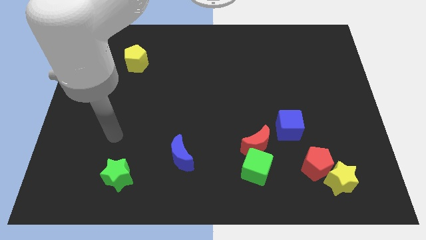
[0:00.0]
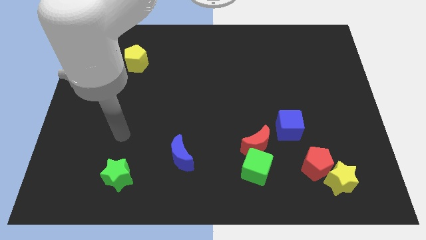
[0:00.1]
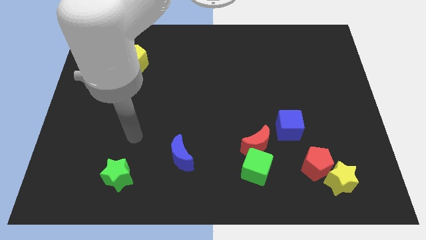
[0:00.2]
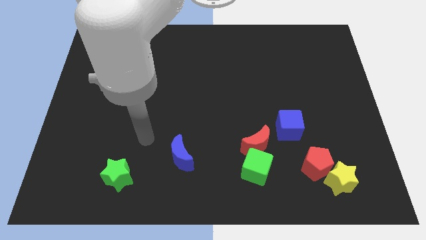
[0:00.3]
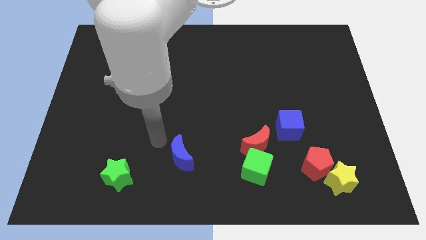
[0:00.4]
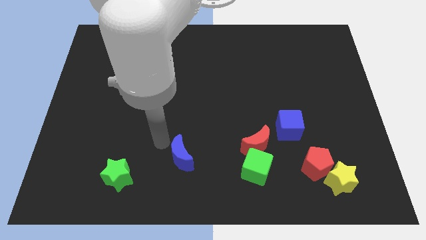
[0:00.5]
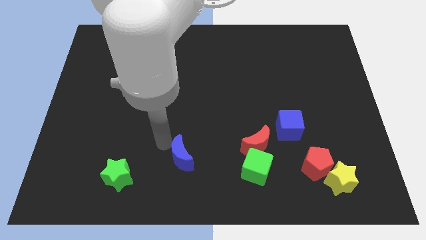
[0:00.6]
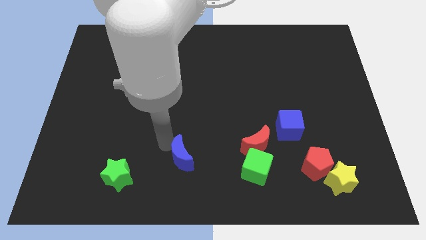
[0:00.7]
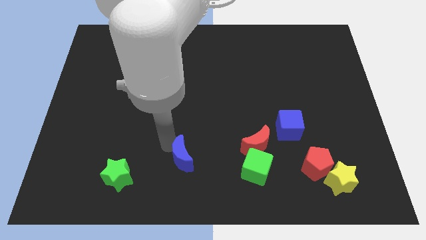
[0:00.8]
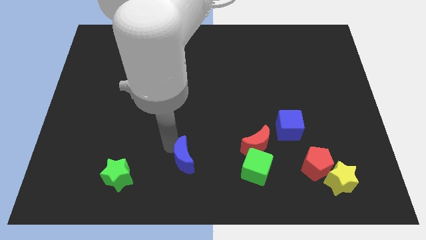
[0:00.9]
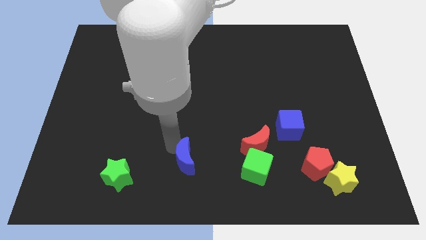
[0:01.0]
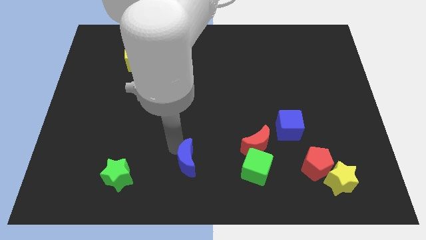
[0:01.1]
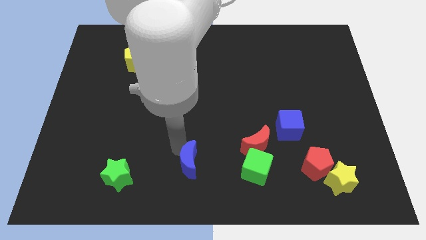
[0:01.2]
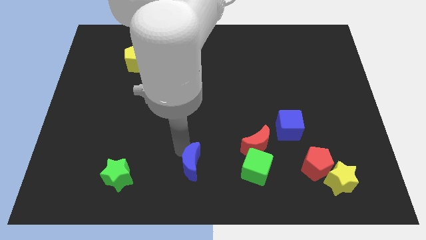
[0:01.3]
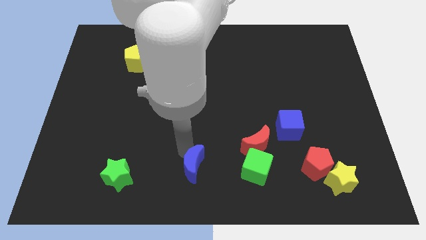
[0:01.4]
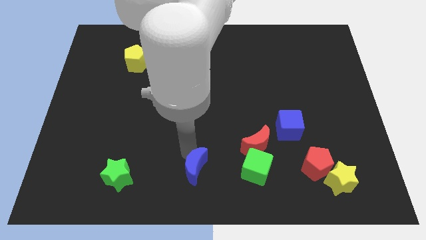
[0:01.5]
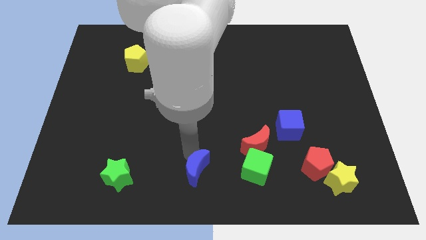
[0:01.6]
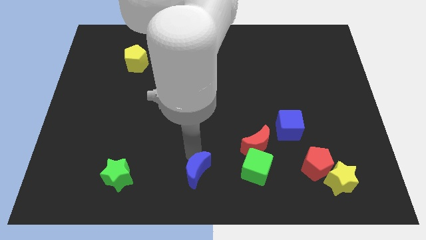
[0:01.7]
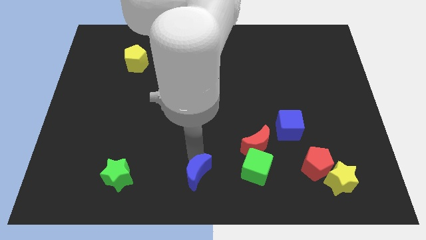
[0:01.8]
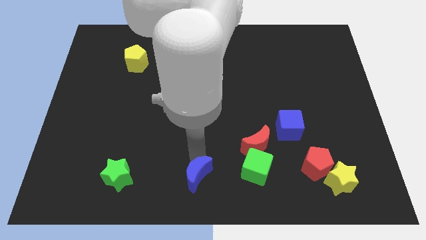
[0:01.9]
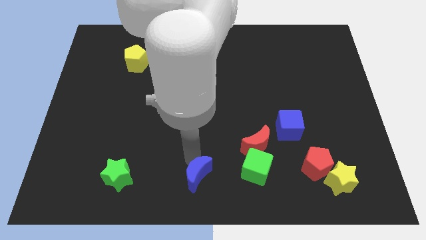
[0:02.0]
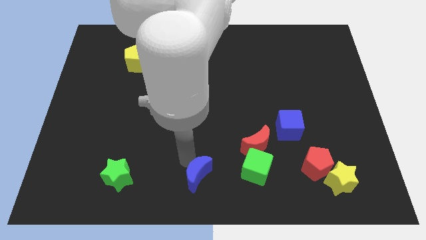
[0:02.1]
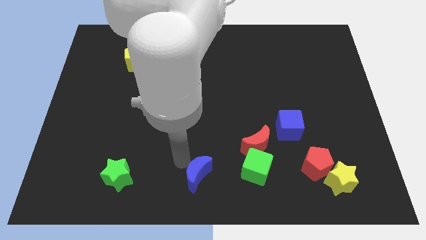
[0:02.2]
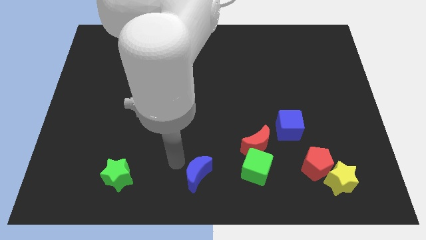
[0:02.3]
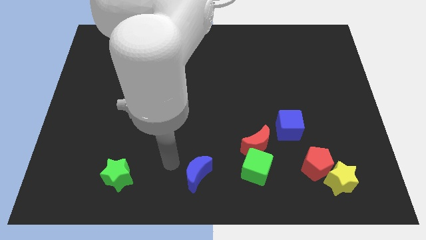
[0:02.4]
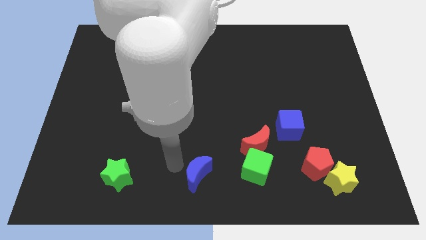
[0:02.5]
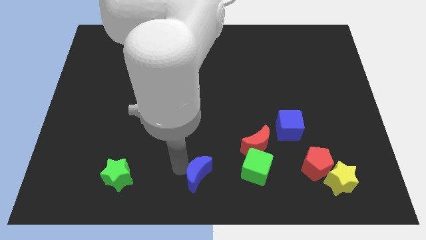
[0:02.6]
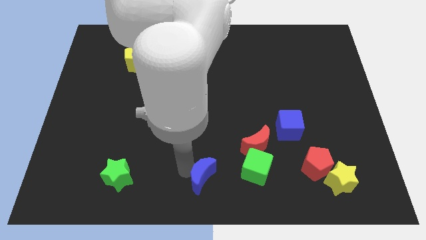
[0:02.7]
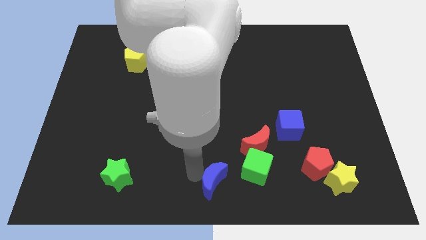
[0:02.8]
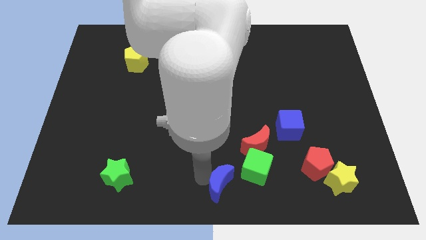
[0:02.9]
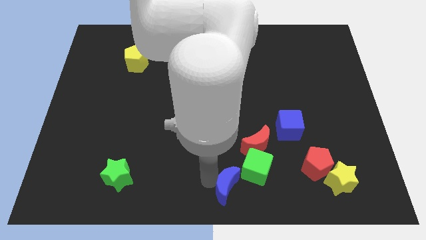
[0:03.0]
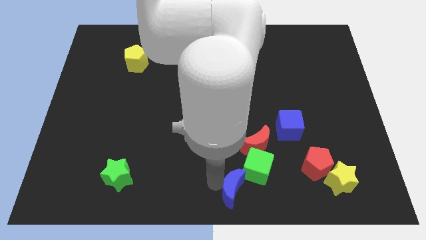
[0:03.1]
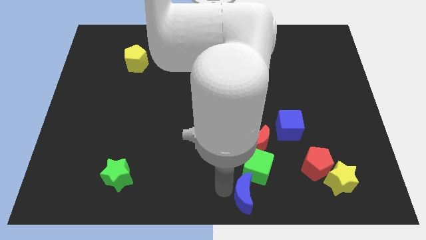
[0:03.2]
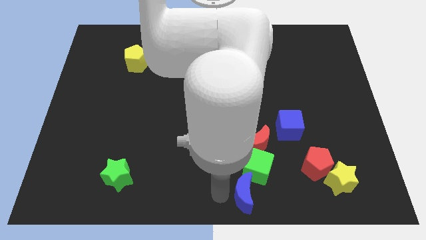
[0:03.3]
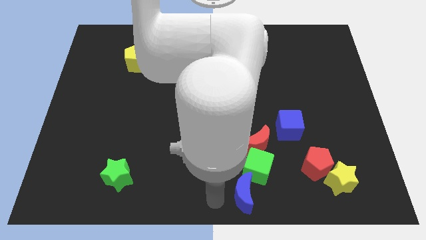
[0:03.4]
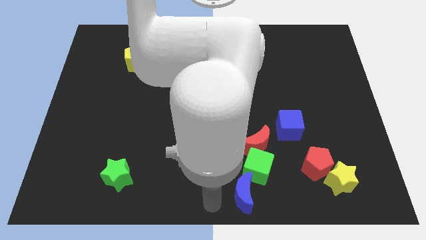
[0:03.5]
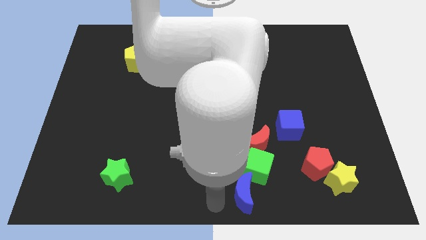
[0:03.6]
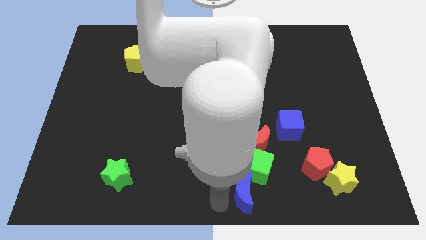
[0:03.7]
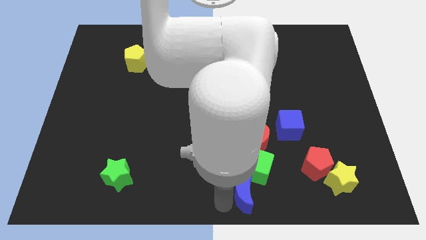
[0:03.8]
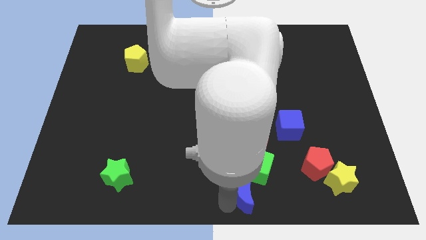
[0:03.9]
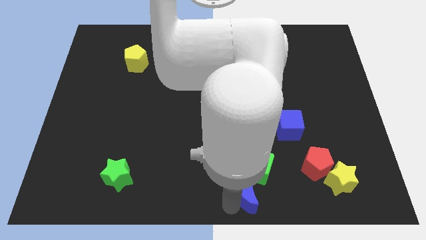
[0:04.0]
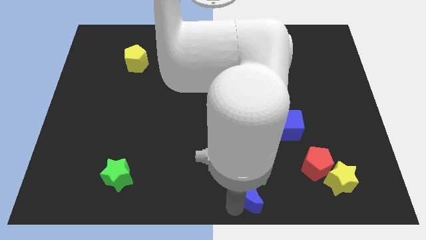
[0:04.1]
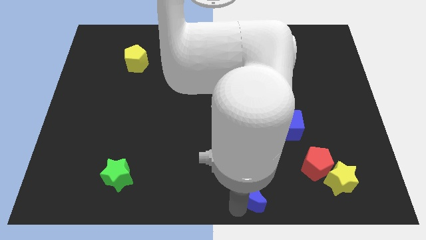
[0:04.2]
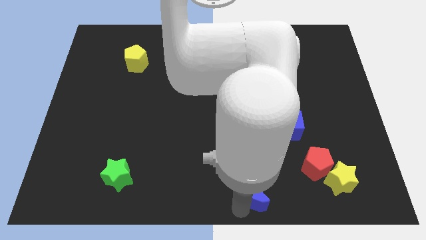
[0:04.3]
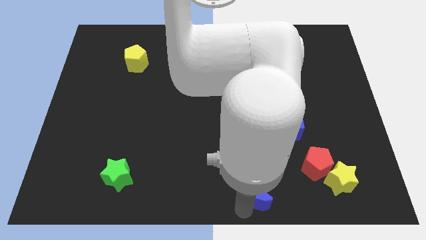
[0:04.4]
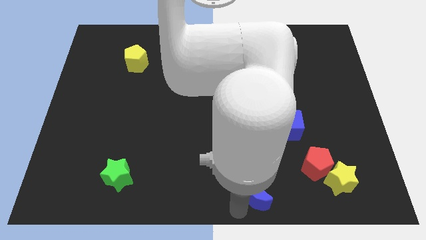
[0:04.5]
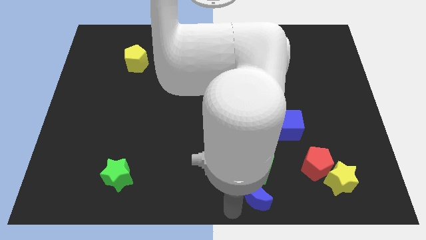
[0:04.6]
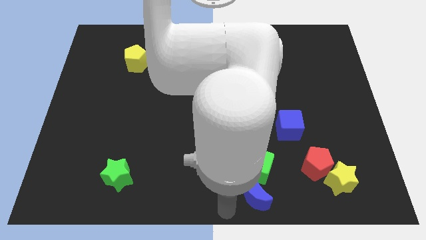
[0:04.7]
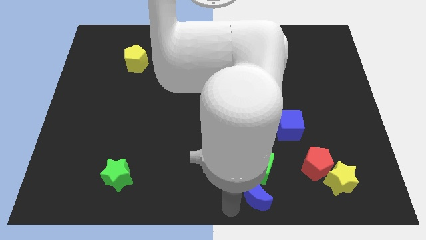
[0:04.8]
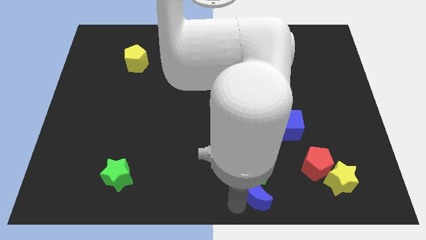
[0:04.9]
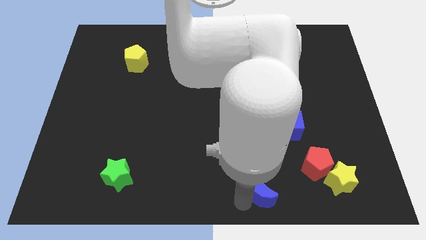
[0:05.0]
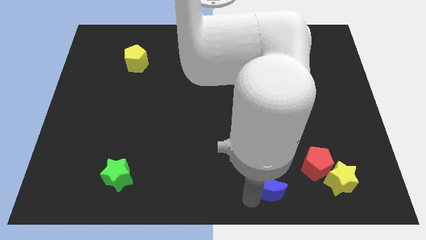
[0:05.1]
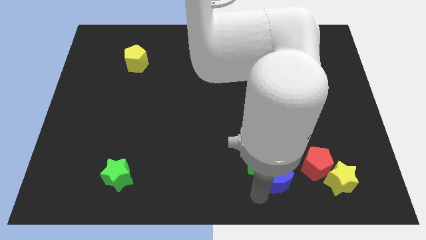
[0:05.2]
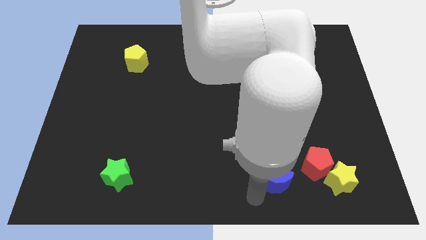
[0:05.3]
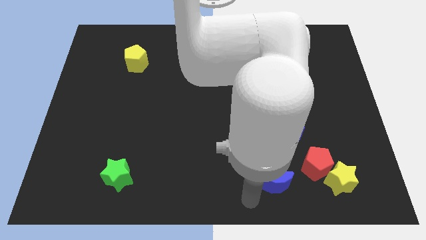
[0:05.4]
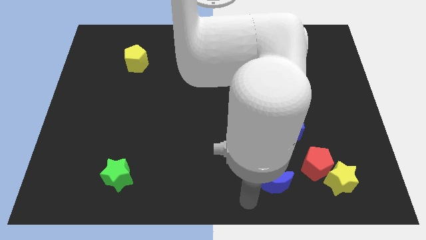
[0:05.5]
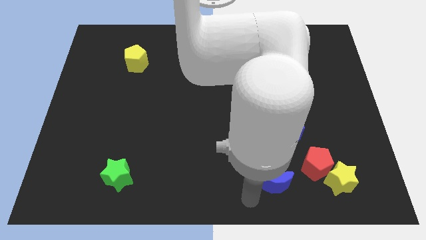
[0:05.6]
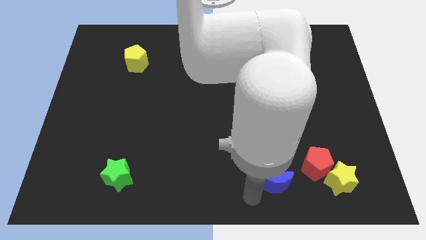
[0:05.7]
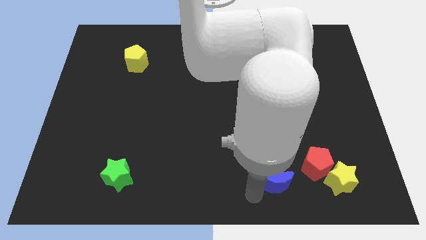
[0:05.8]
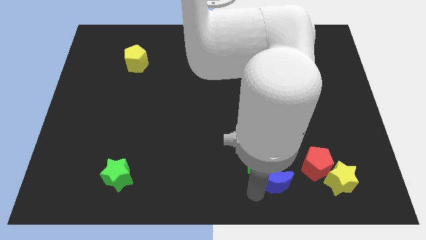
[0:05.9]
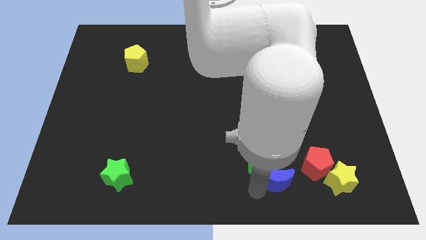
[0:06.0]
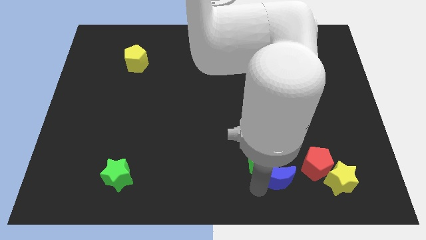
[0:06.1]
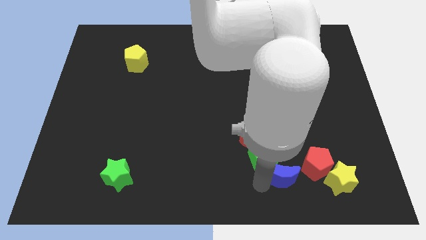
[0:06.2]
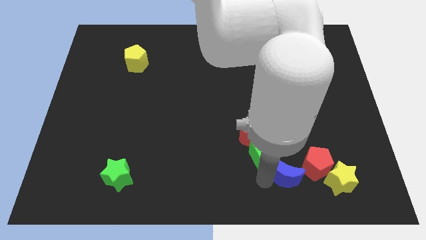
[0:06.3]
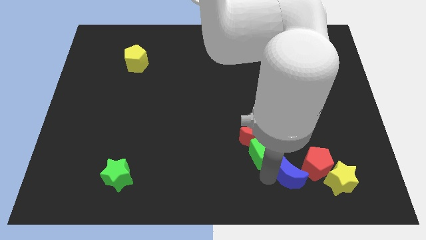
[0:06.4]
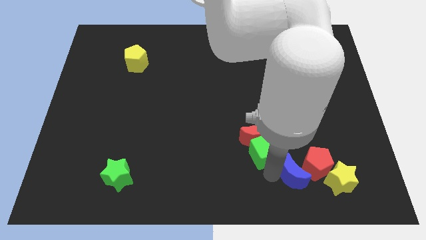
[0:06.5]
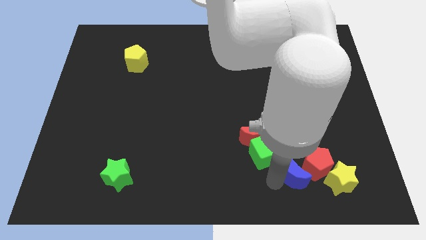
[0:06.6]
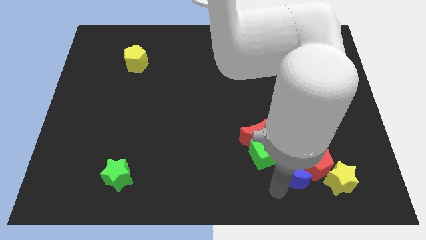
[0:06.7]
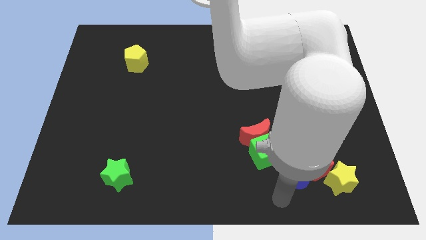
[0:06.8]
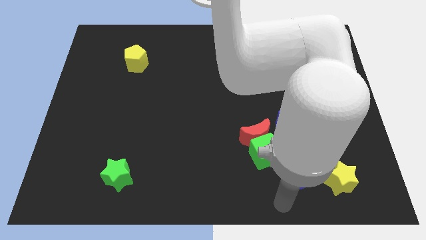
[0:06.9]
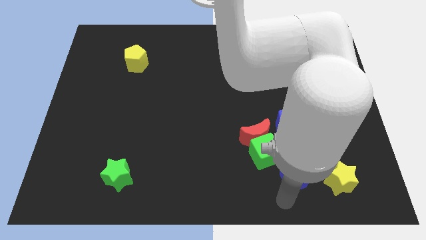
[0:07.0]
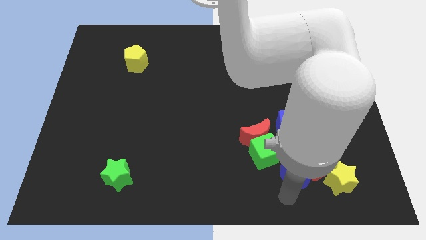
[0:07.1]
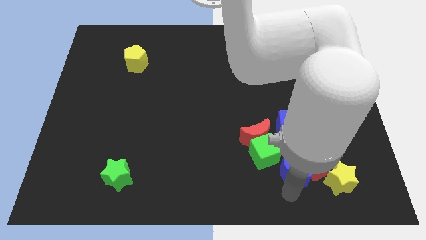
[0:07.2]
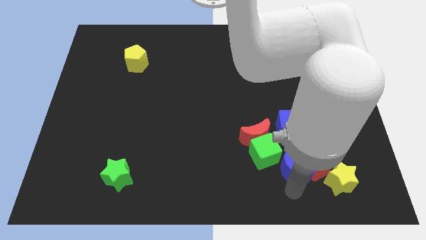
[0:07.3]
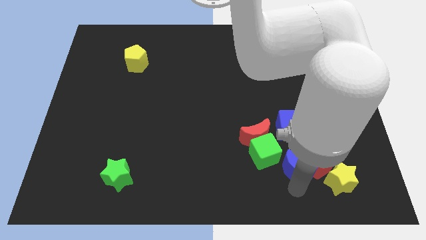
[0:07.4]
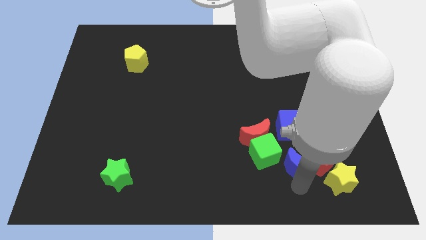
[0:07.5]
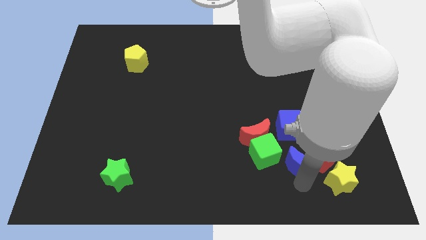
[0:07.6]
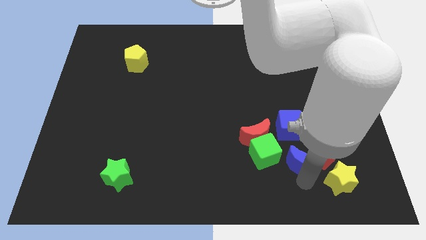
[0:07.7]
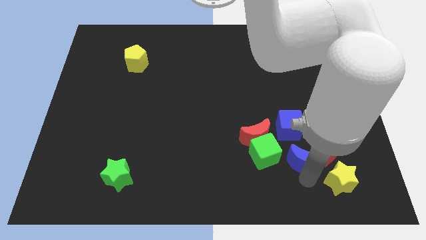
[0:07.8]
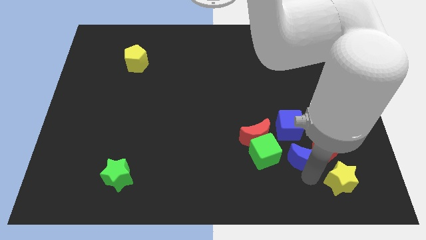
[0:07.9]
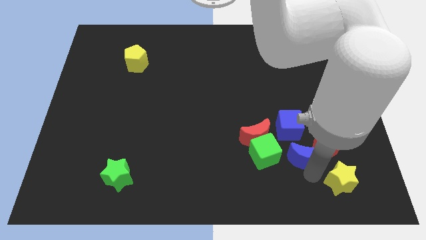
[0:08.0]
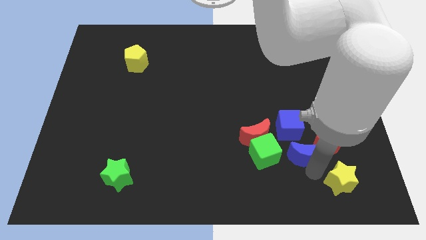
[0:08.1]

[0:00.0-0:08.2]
slide the blue moon just right of the red moon
